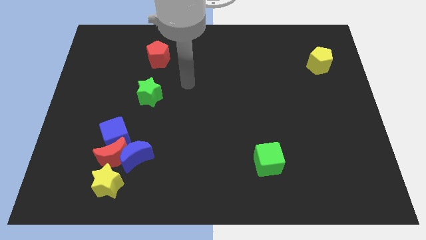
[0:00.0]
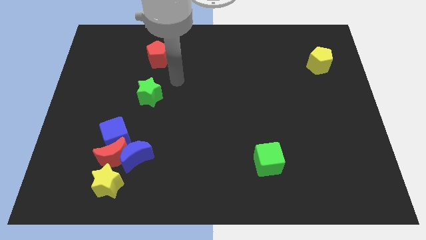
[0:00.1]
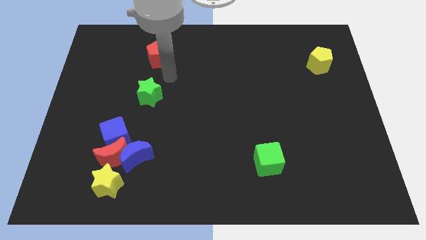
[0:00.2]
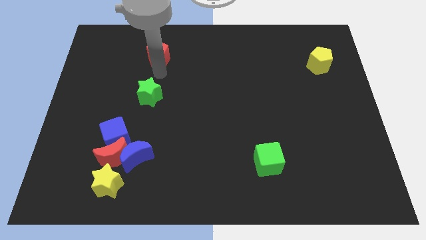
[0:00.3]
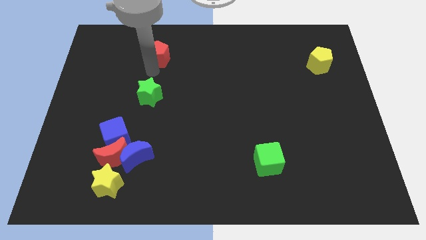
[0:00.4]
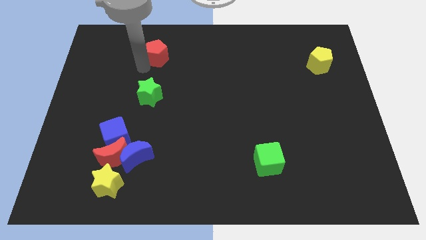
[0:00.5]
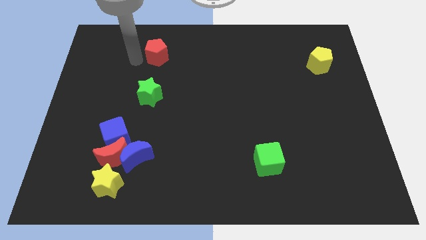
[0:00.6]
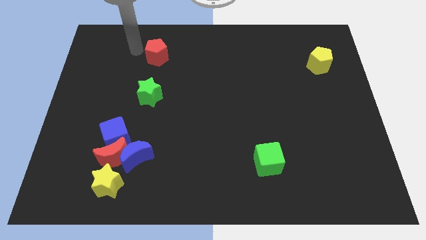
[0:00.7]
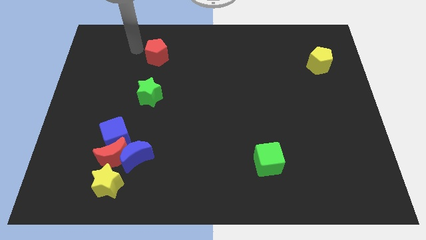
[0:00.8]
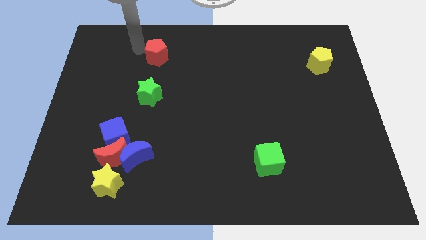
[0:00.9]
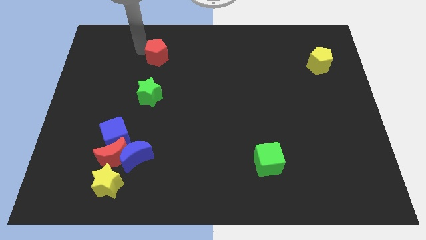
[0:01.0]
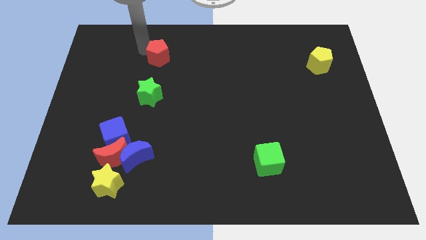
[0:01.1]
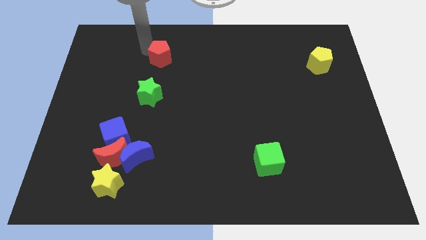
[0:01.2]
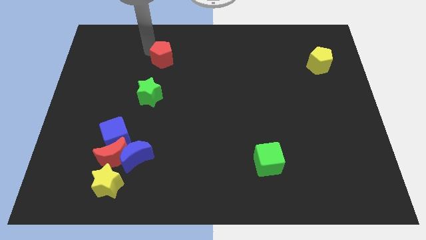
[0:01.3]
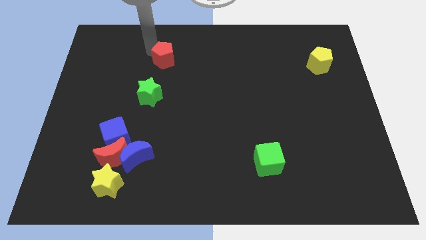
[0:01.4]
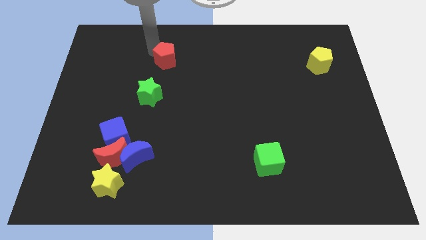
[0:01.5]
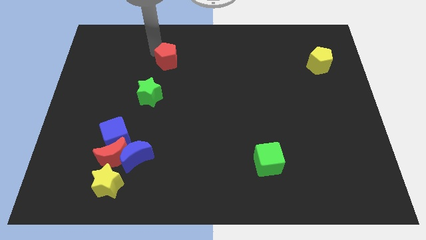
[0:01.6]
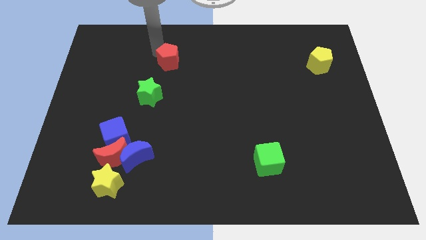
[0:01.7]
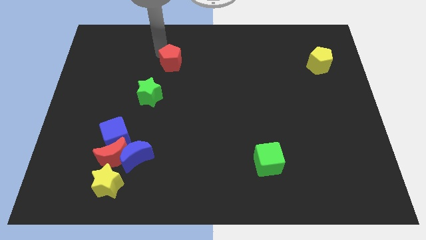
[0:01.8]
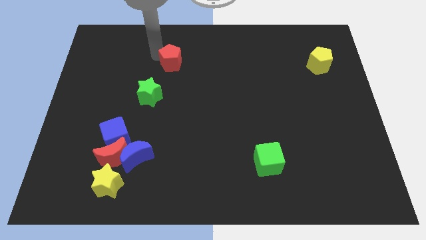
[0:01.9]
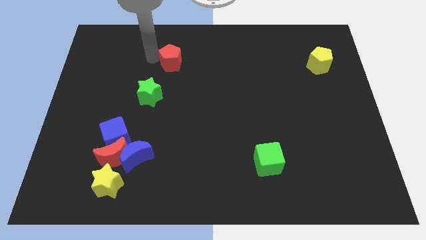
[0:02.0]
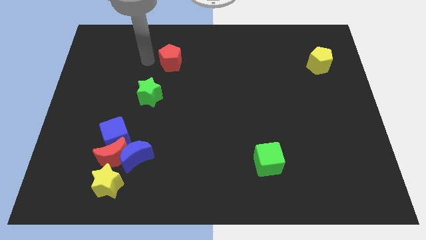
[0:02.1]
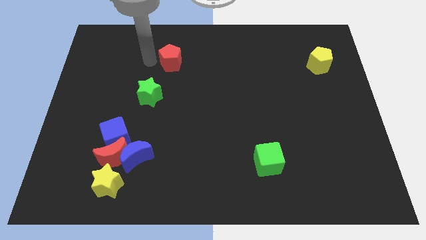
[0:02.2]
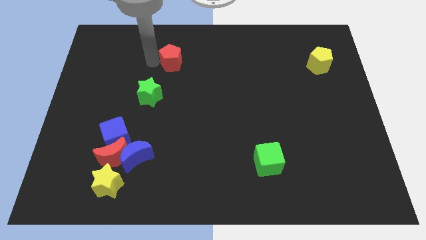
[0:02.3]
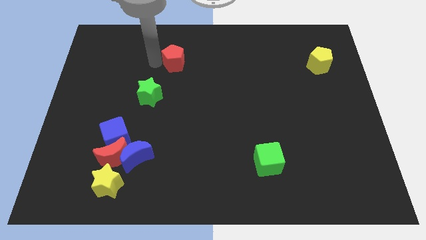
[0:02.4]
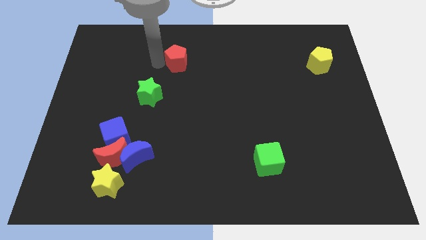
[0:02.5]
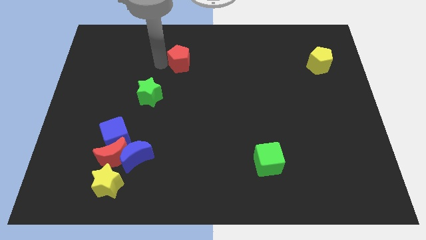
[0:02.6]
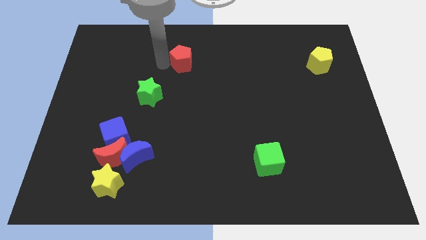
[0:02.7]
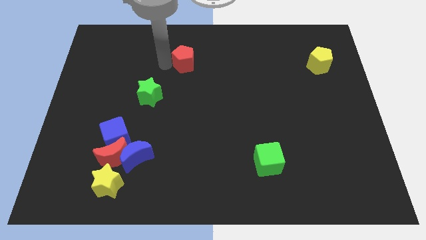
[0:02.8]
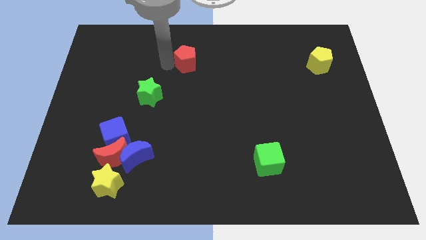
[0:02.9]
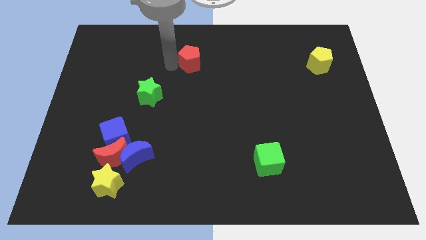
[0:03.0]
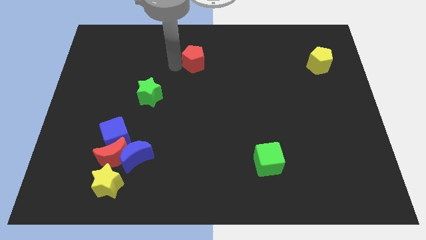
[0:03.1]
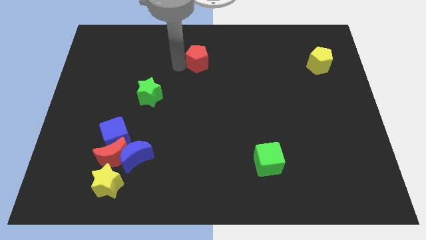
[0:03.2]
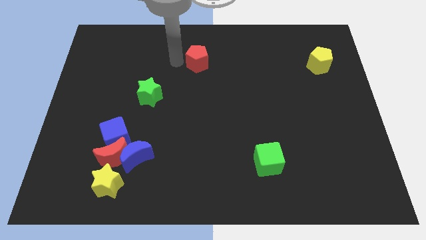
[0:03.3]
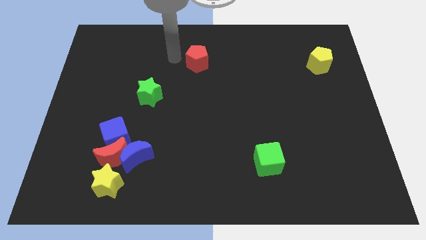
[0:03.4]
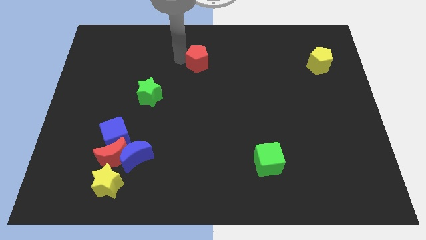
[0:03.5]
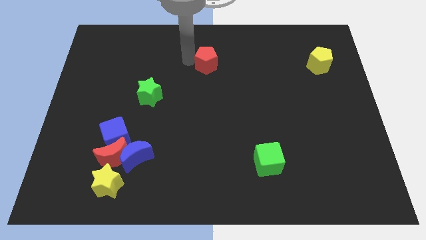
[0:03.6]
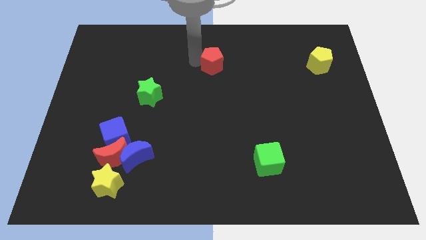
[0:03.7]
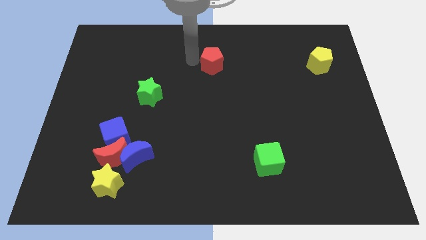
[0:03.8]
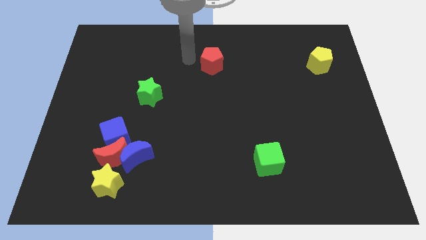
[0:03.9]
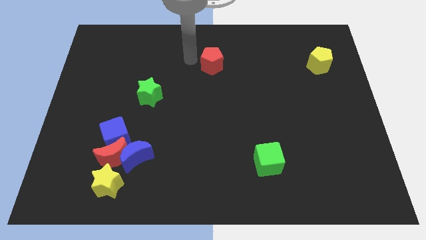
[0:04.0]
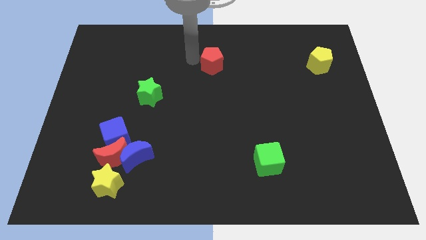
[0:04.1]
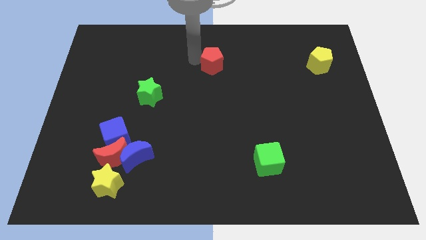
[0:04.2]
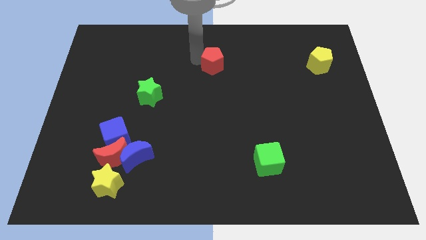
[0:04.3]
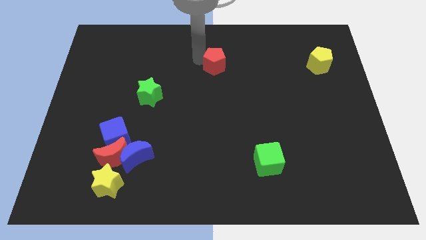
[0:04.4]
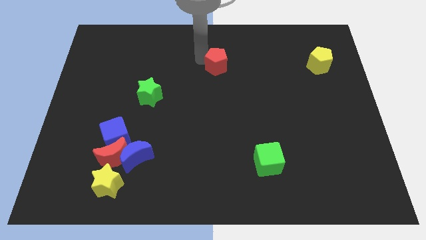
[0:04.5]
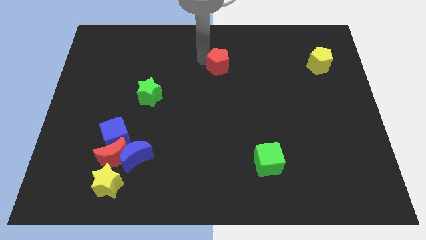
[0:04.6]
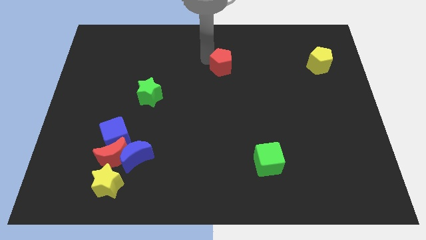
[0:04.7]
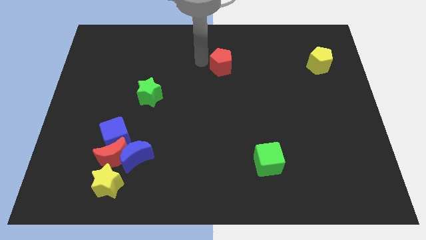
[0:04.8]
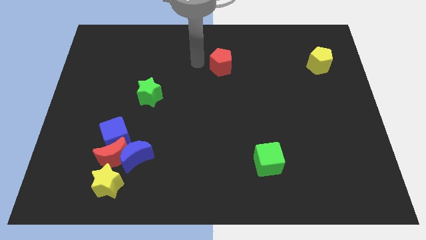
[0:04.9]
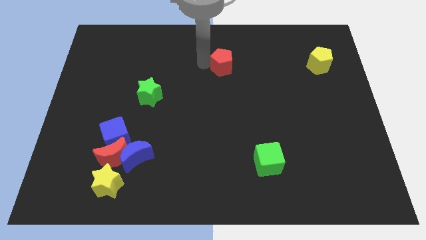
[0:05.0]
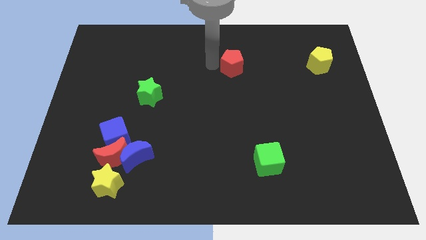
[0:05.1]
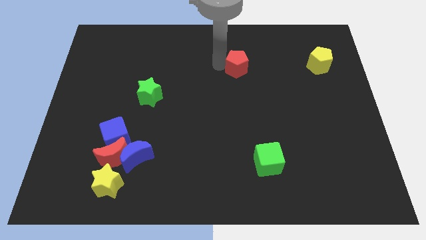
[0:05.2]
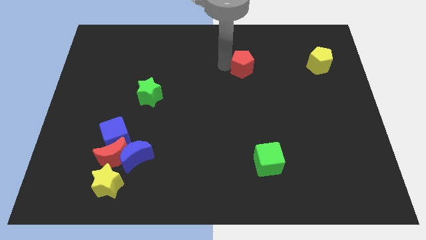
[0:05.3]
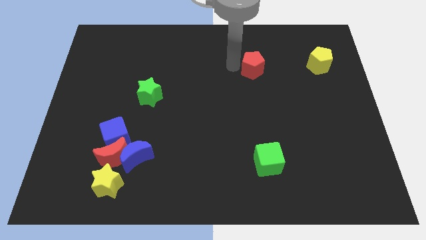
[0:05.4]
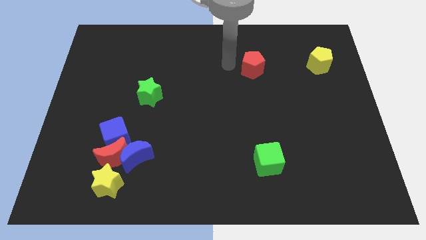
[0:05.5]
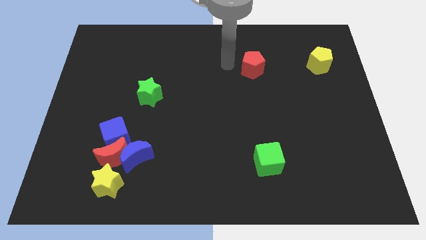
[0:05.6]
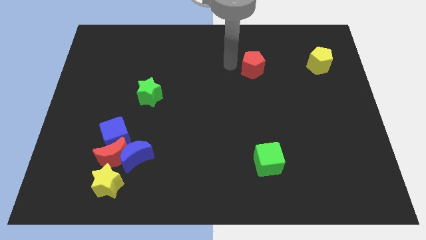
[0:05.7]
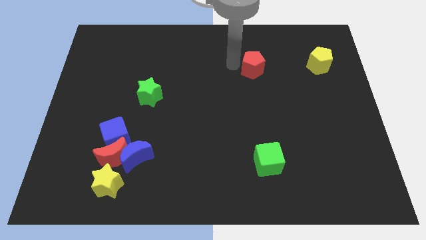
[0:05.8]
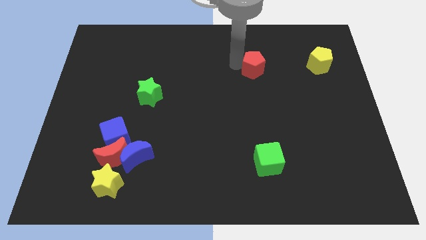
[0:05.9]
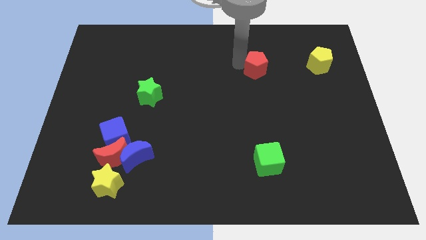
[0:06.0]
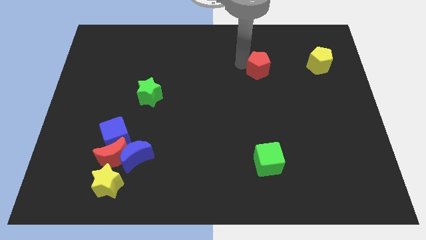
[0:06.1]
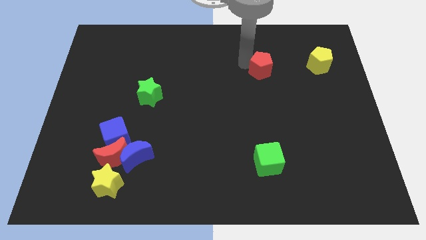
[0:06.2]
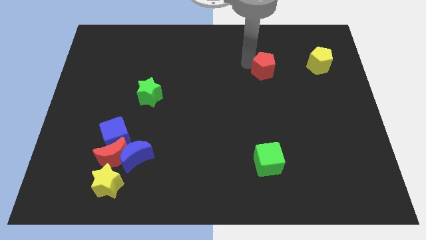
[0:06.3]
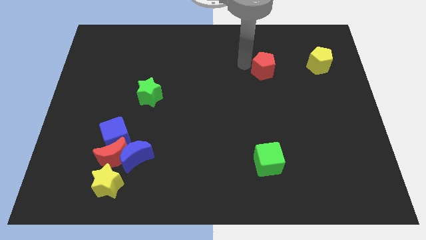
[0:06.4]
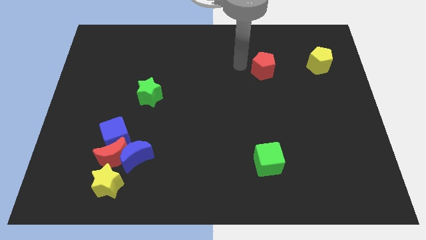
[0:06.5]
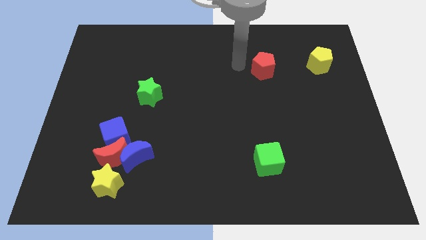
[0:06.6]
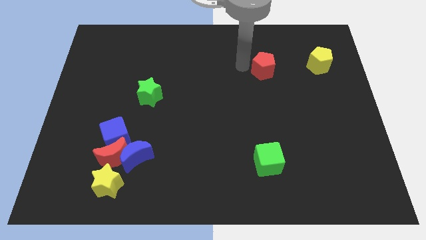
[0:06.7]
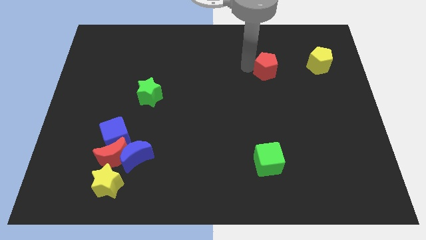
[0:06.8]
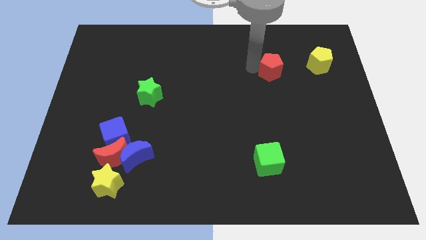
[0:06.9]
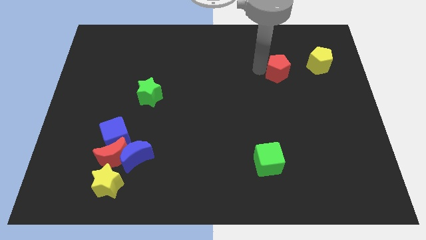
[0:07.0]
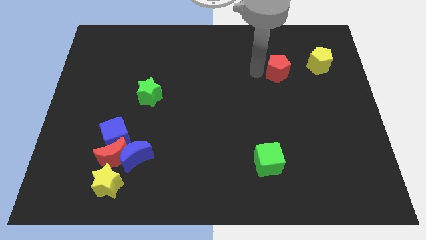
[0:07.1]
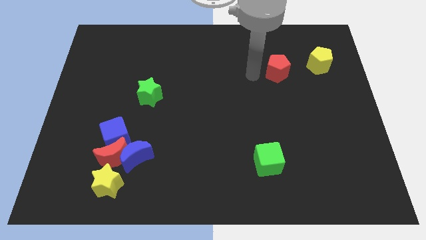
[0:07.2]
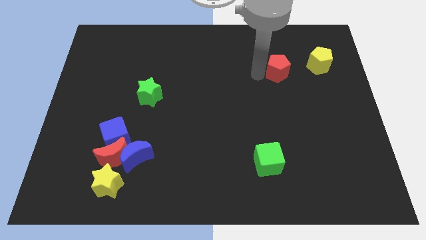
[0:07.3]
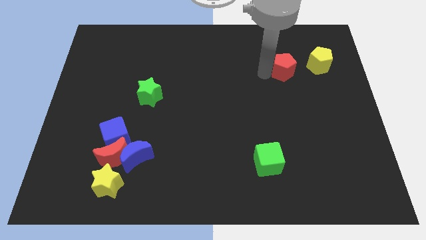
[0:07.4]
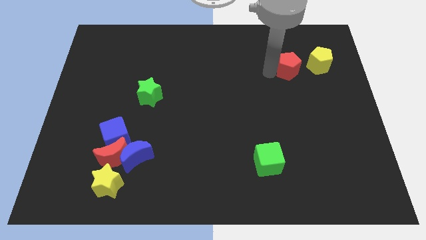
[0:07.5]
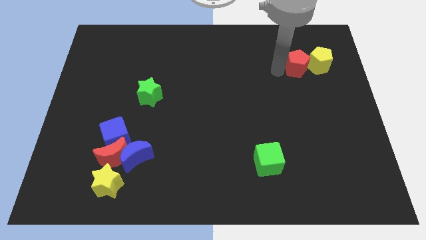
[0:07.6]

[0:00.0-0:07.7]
slide the red pentagon towards the yellow pentagon
